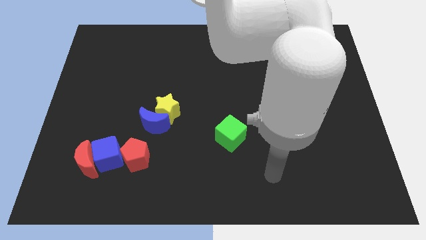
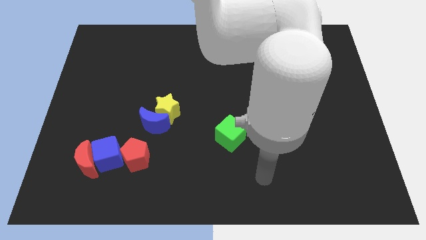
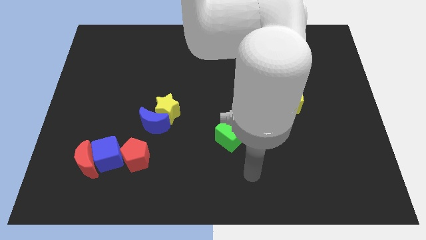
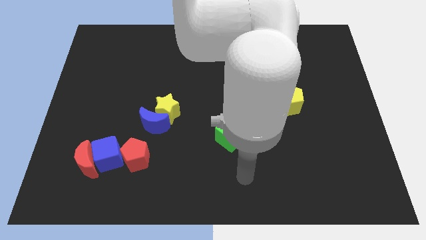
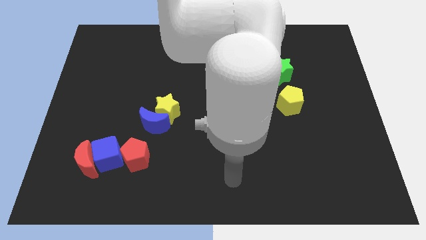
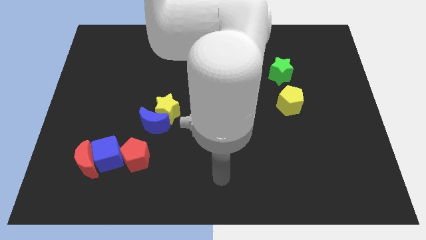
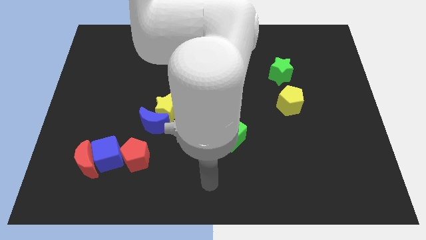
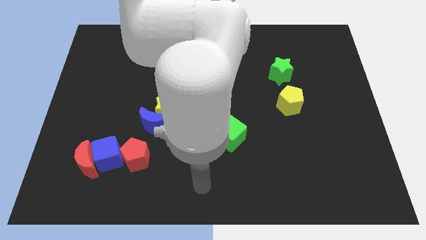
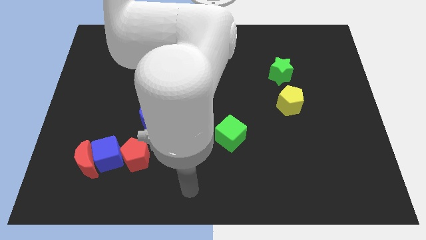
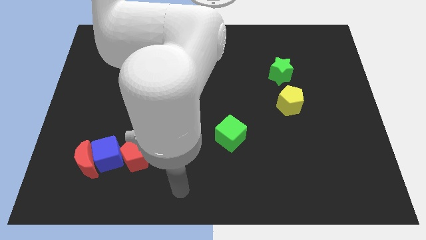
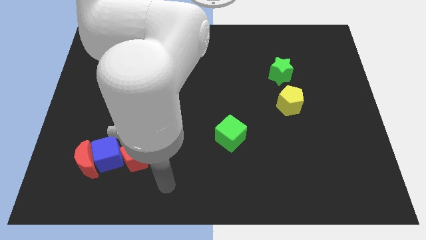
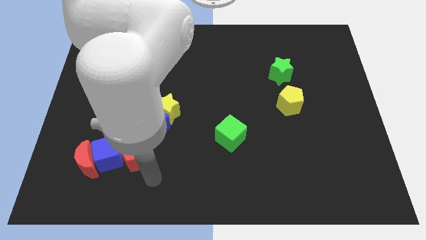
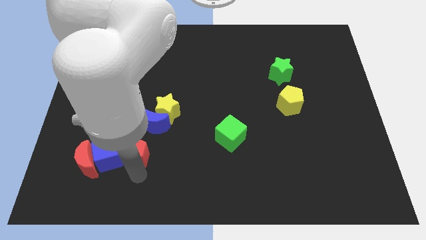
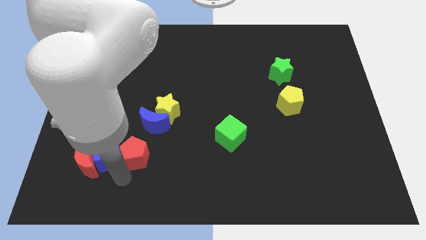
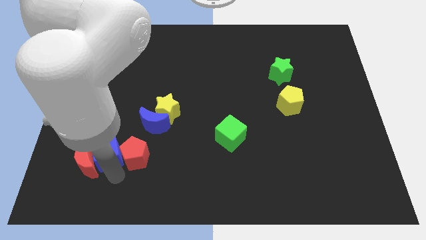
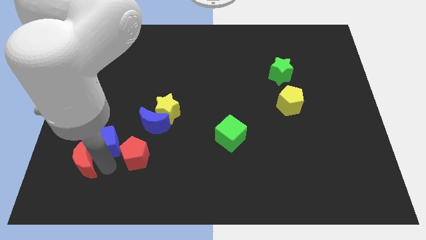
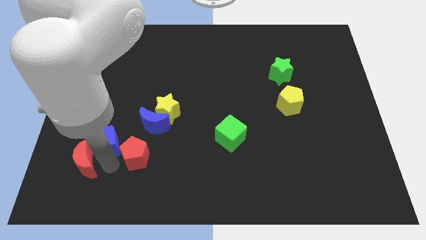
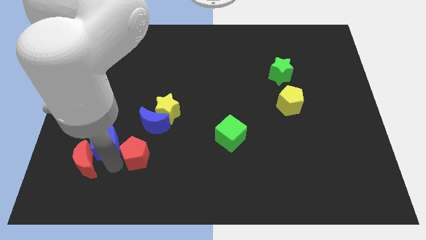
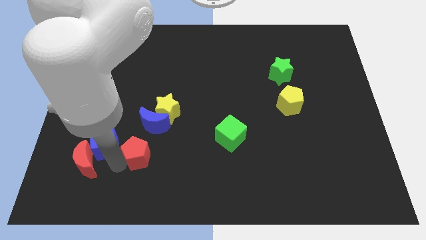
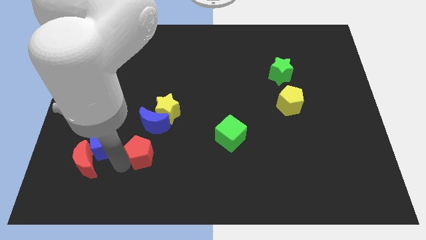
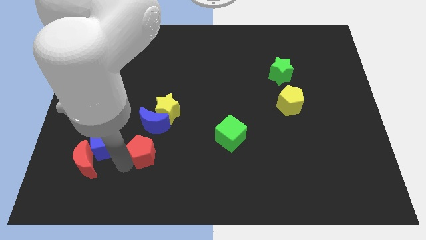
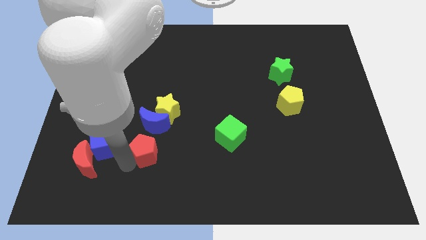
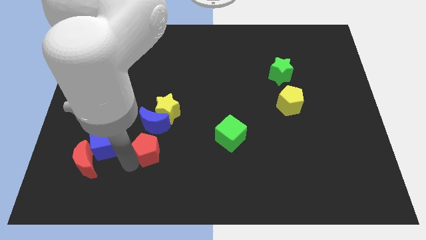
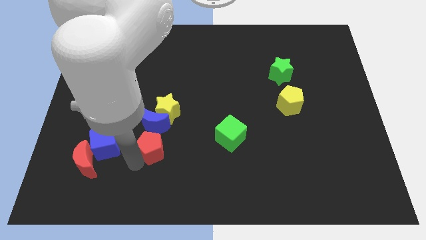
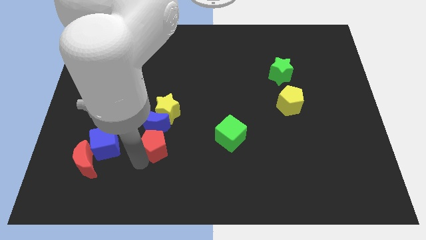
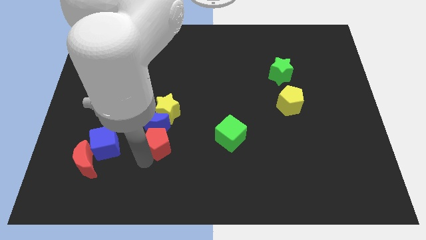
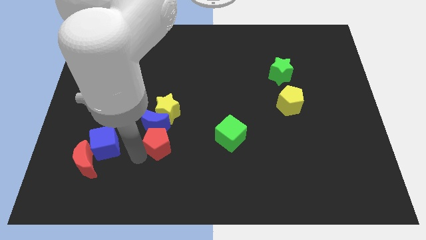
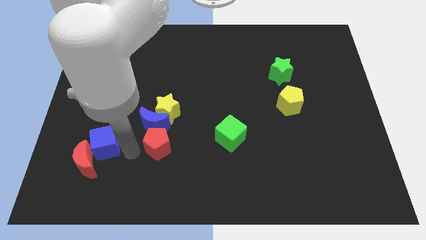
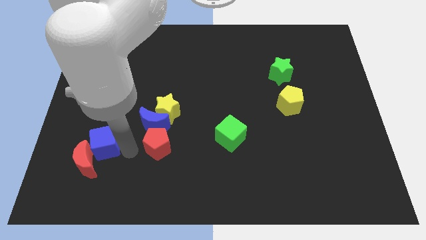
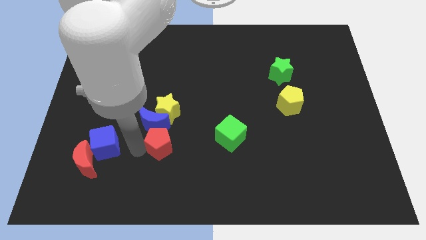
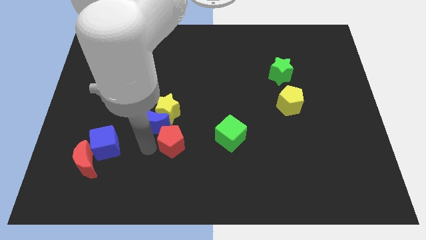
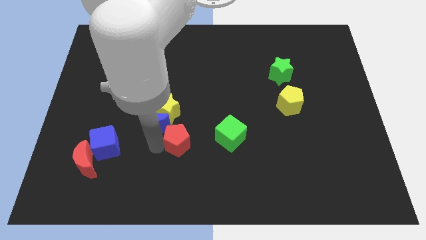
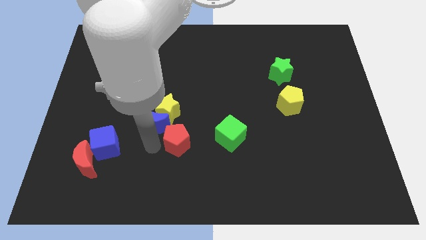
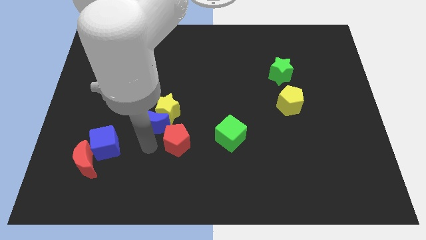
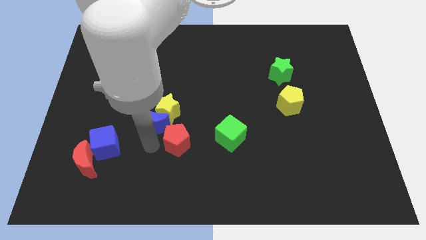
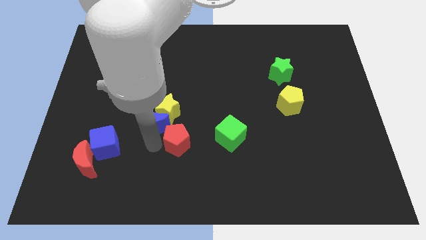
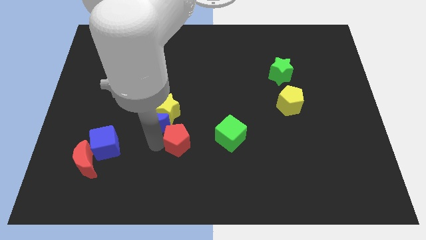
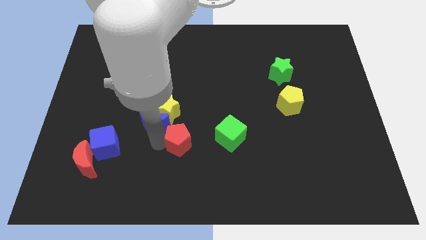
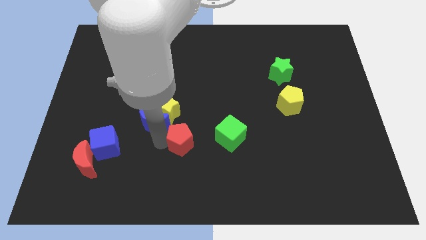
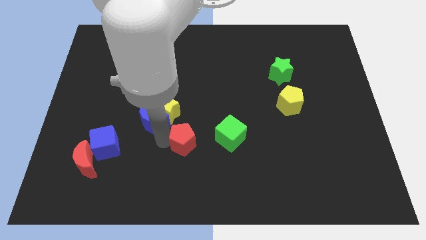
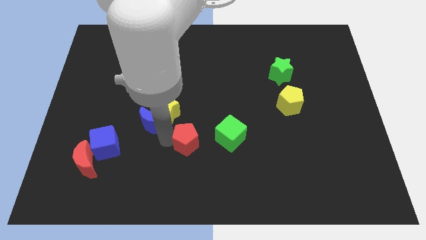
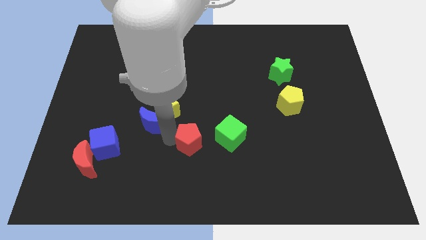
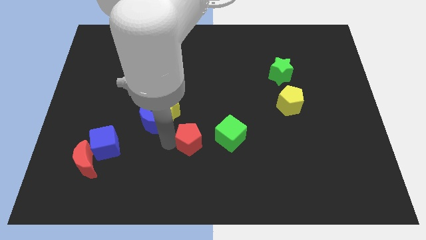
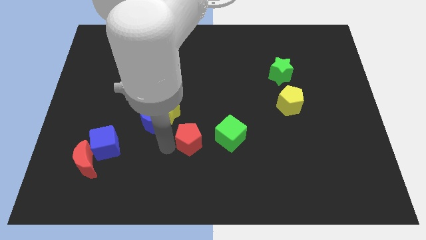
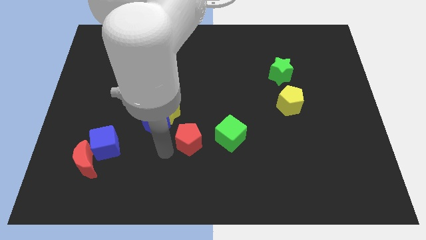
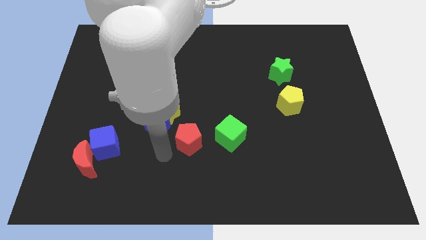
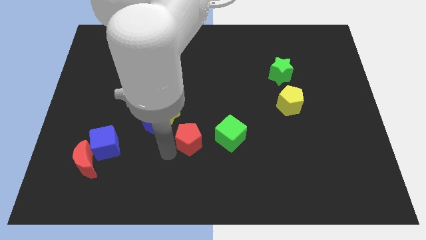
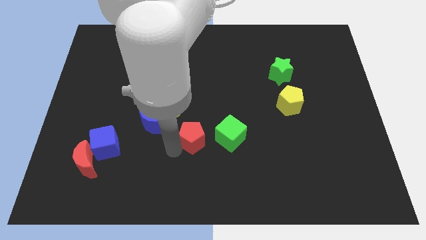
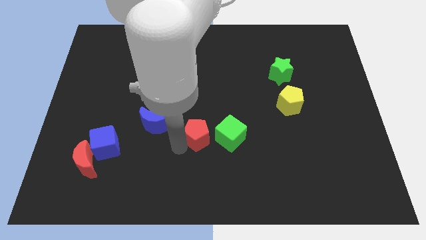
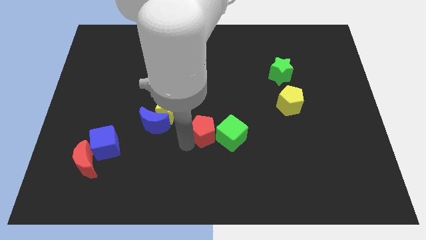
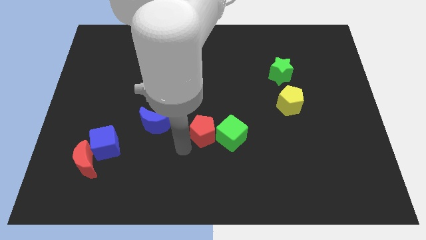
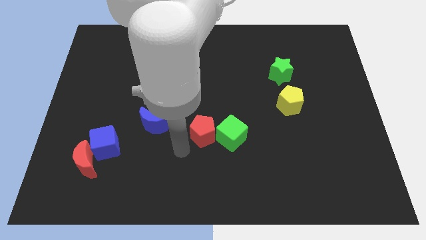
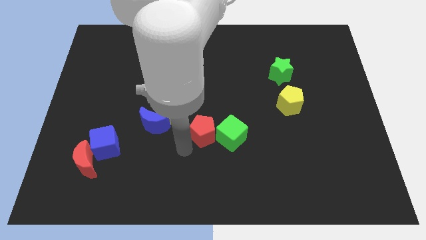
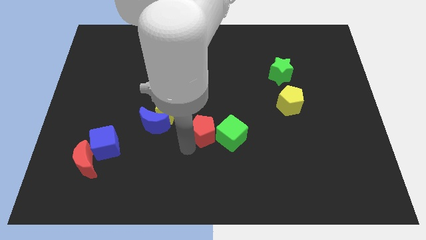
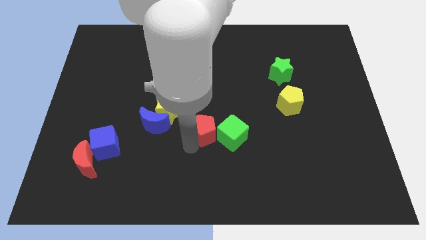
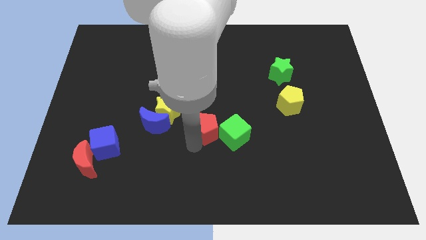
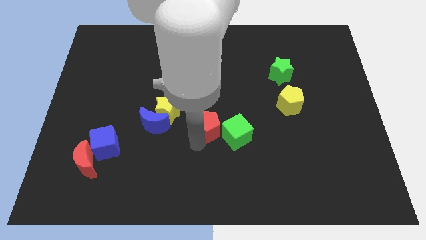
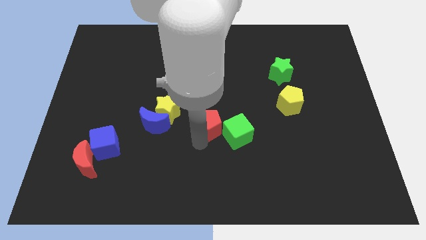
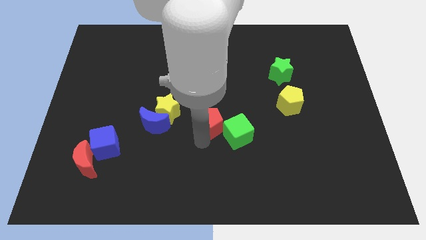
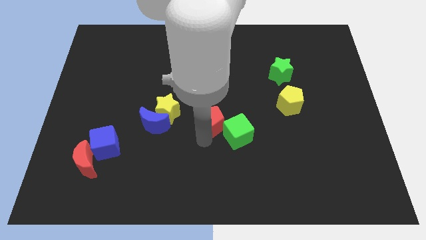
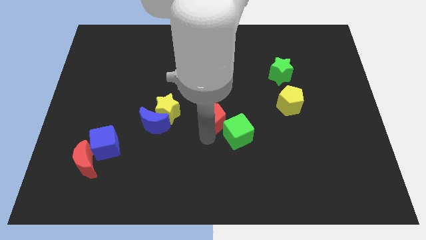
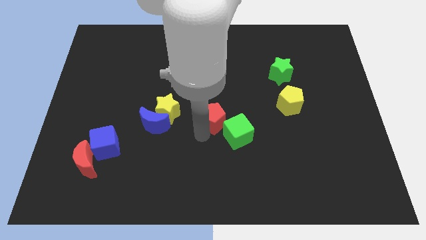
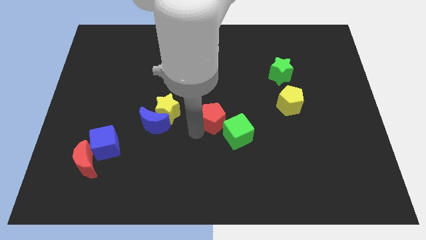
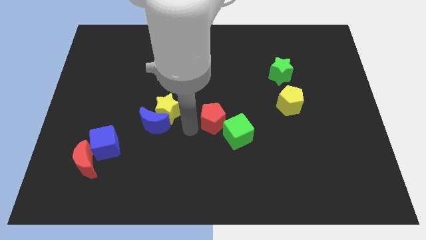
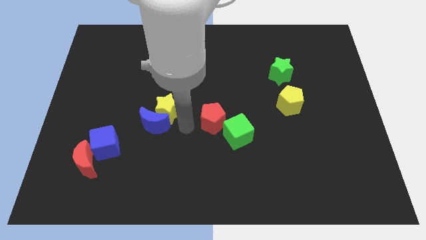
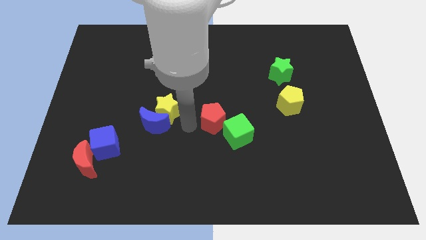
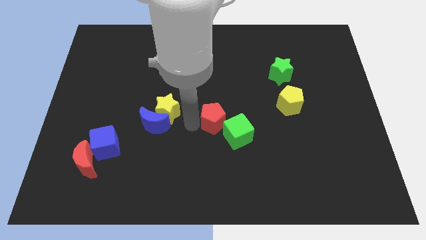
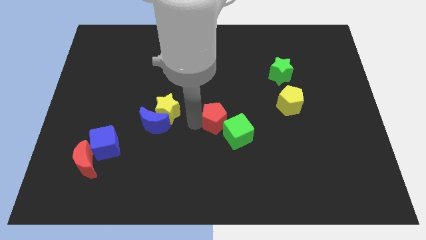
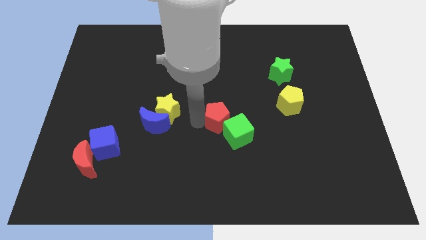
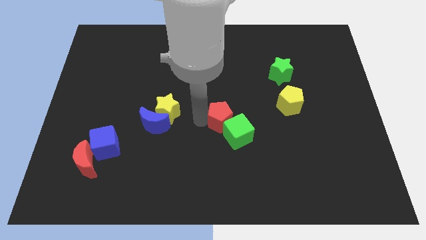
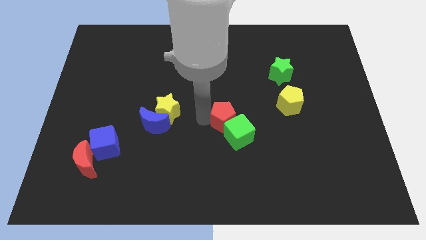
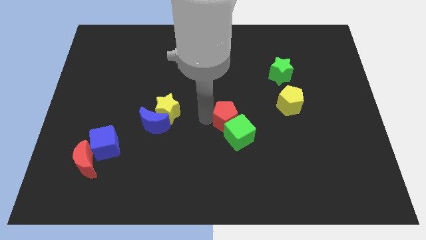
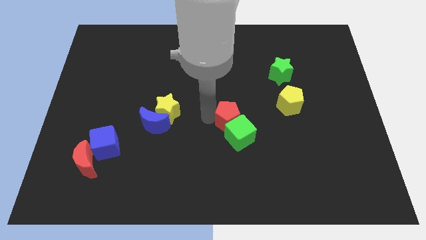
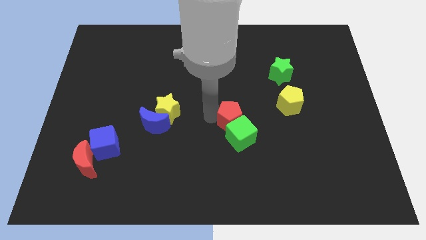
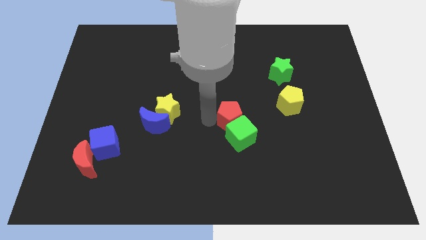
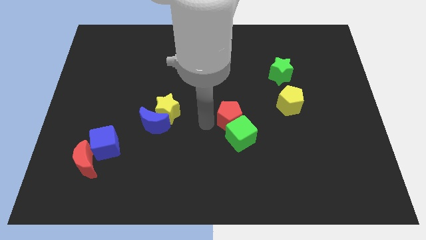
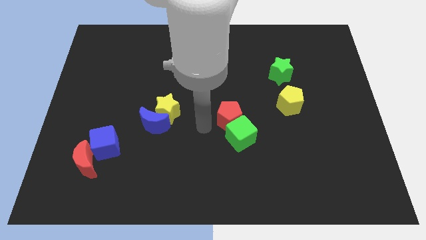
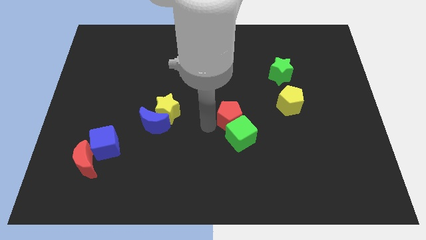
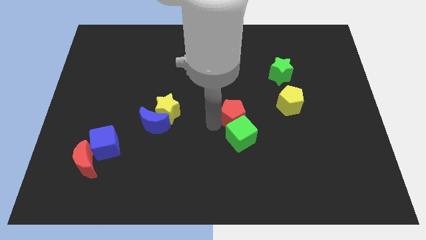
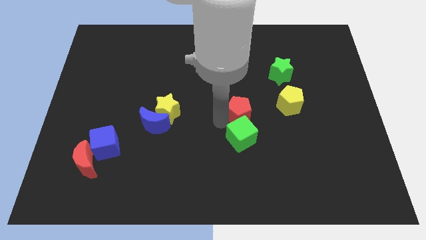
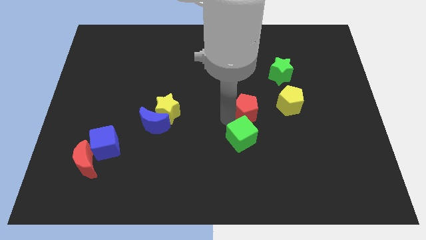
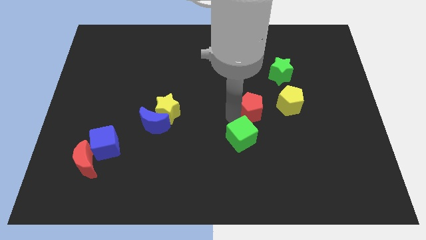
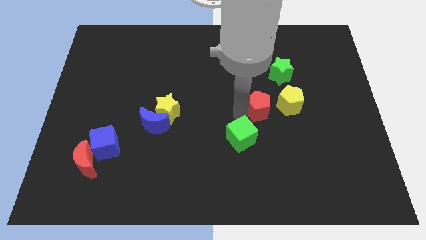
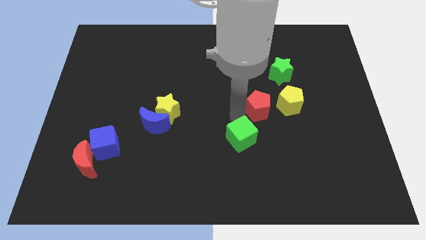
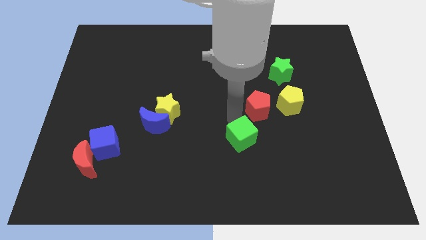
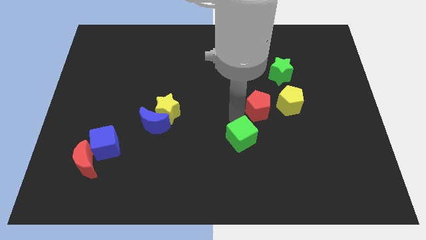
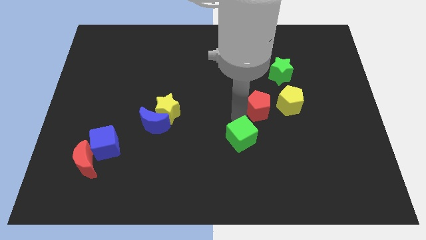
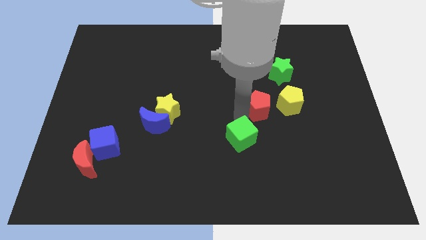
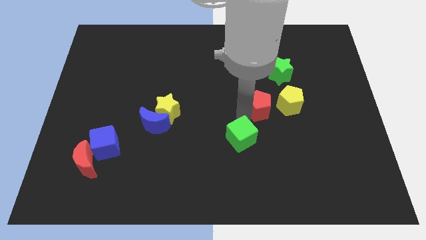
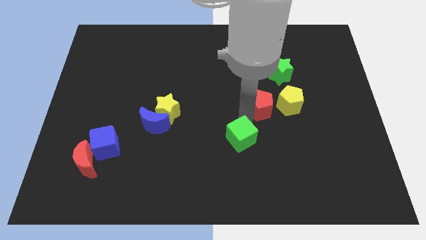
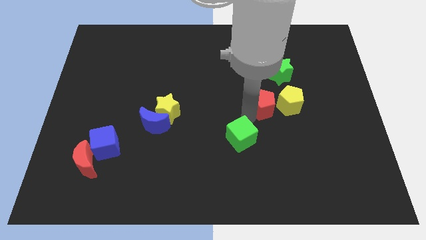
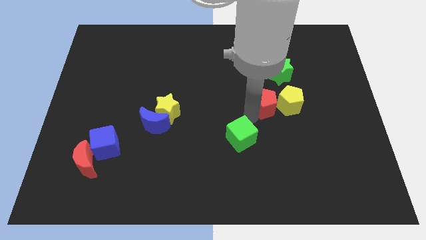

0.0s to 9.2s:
slide the red pentagon to the yellow pentagon
